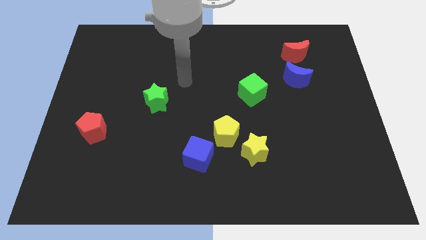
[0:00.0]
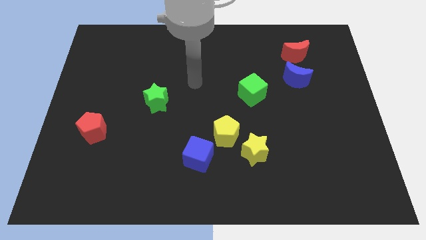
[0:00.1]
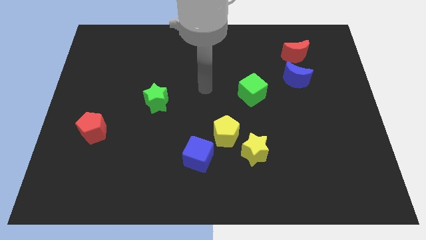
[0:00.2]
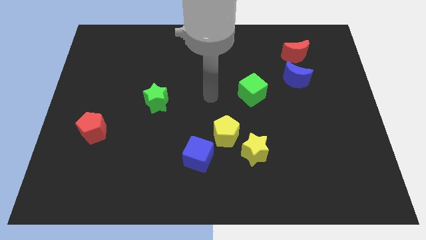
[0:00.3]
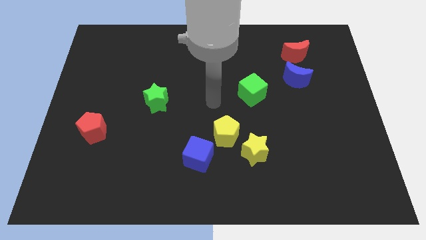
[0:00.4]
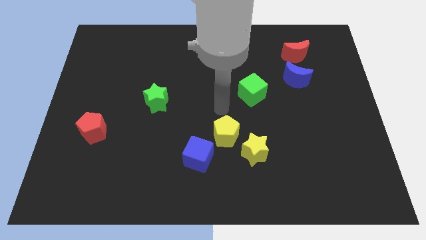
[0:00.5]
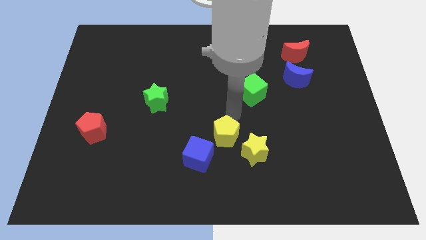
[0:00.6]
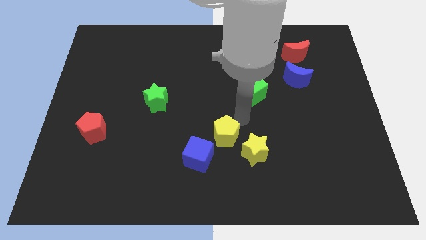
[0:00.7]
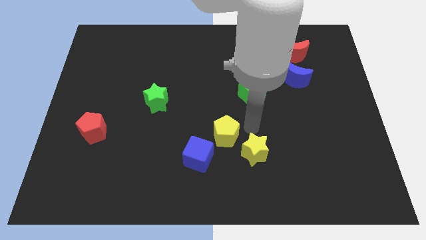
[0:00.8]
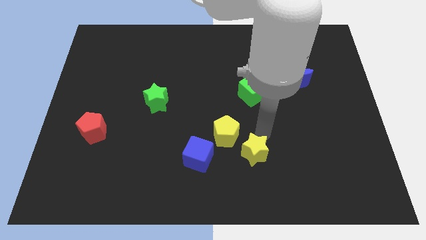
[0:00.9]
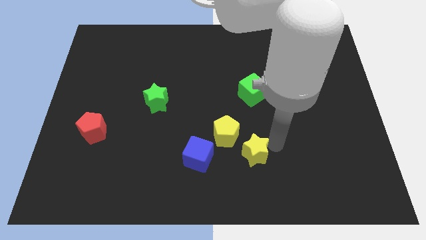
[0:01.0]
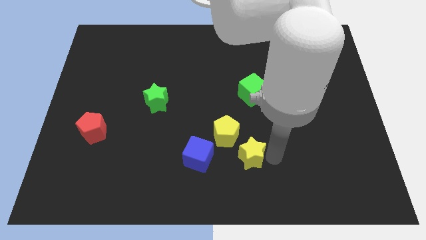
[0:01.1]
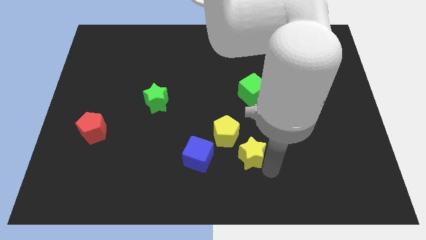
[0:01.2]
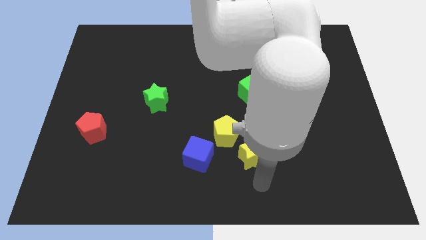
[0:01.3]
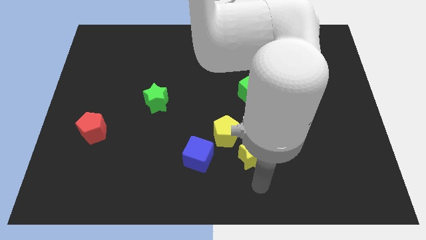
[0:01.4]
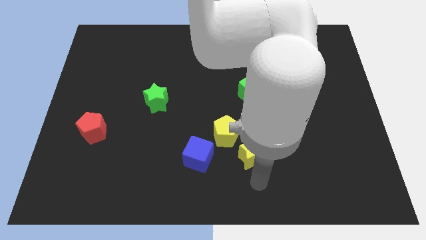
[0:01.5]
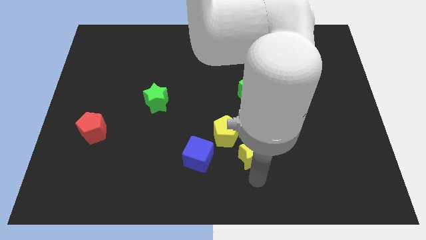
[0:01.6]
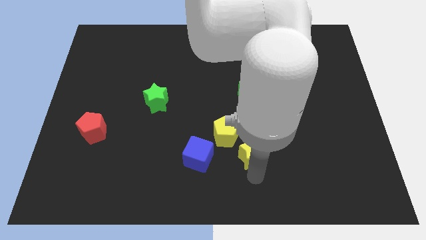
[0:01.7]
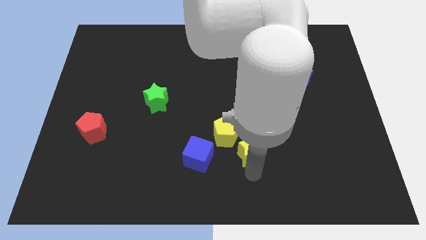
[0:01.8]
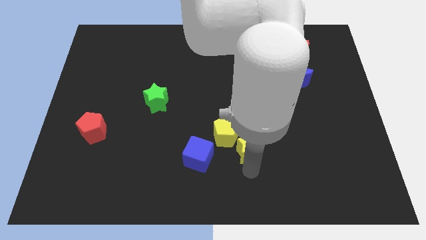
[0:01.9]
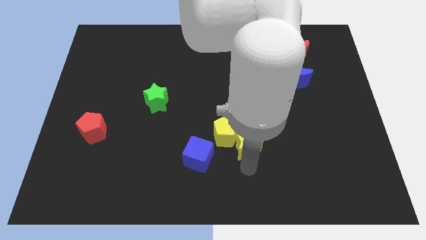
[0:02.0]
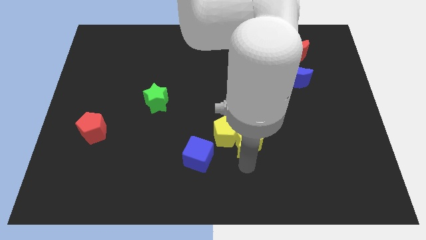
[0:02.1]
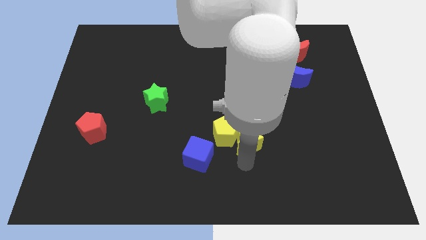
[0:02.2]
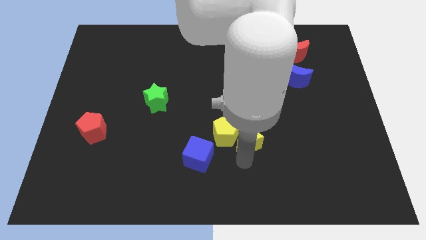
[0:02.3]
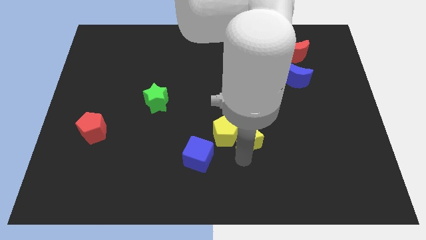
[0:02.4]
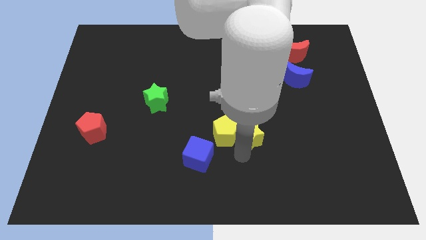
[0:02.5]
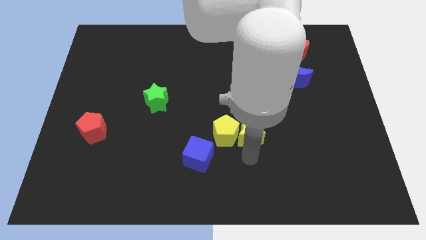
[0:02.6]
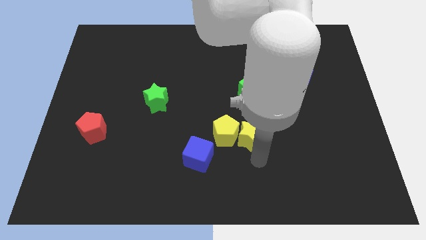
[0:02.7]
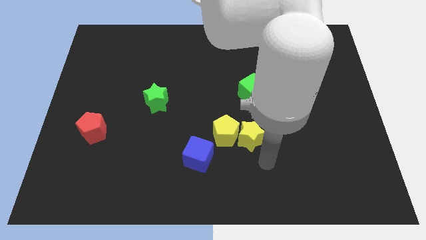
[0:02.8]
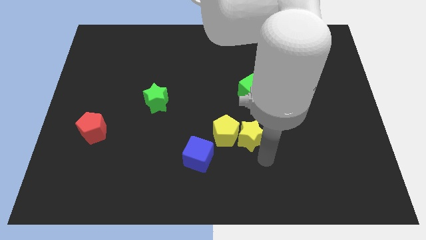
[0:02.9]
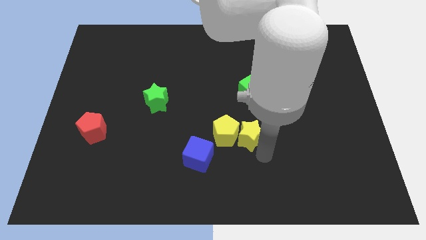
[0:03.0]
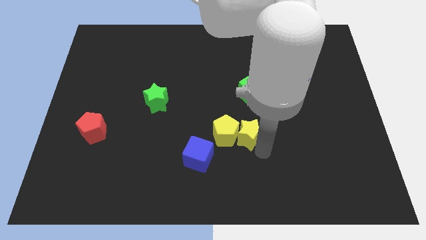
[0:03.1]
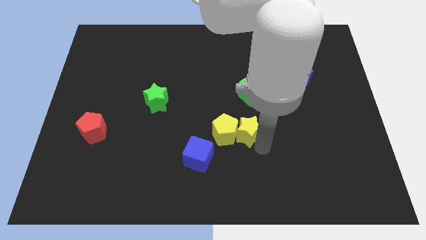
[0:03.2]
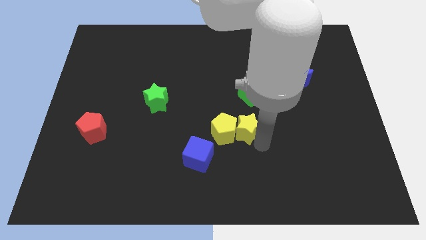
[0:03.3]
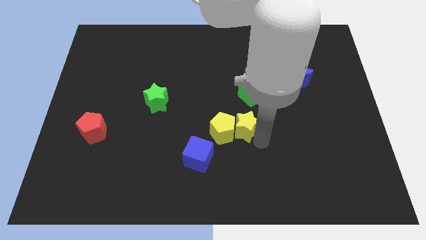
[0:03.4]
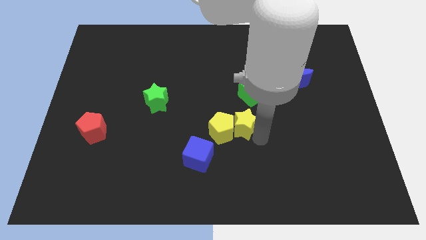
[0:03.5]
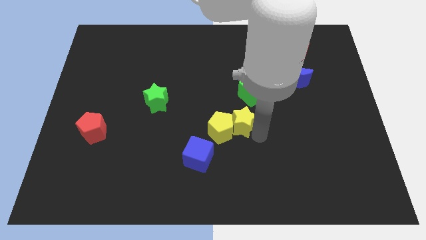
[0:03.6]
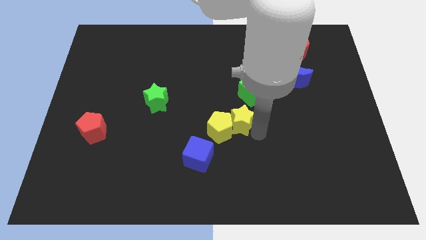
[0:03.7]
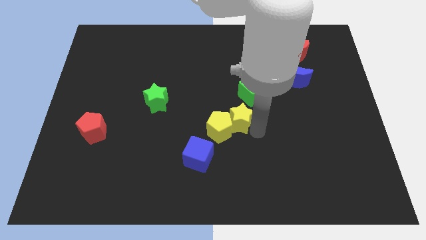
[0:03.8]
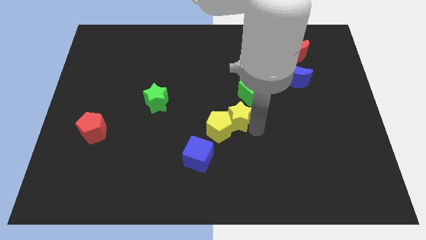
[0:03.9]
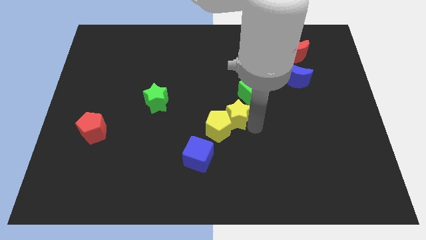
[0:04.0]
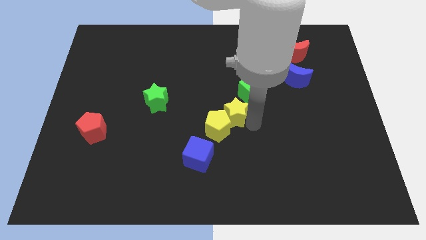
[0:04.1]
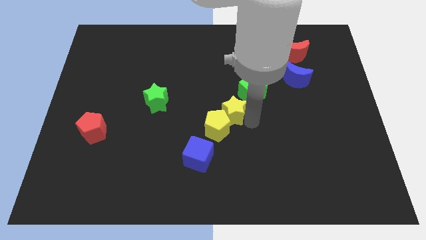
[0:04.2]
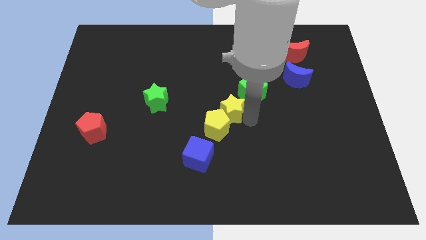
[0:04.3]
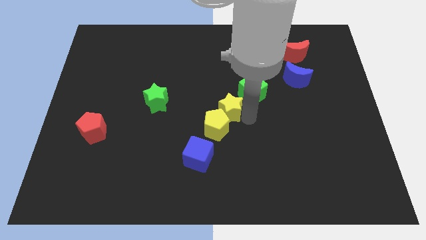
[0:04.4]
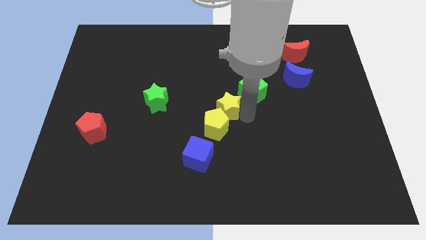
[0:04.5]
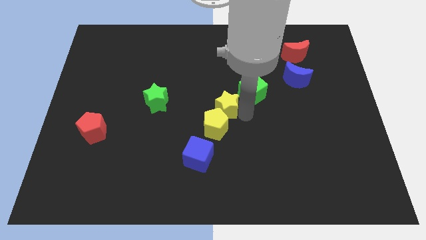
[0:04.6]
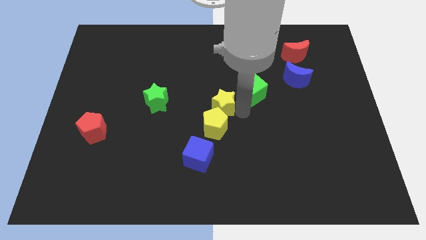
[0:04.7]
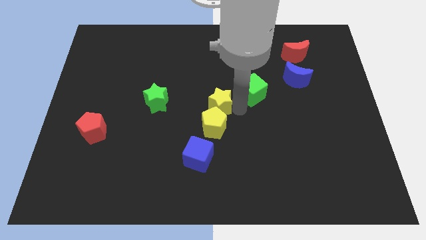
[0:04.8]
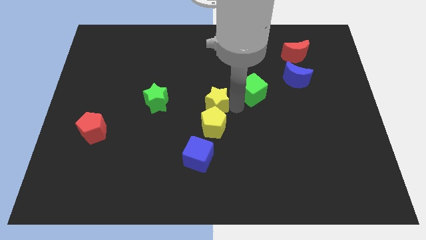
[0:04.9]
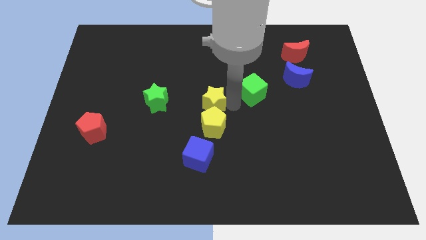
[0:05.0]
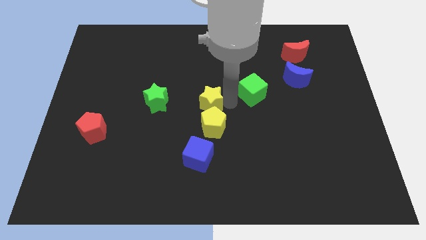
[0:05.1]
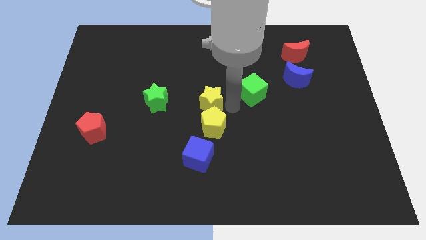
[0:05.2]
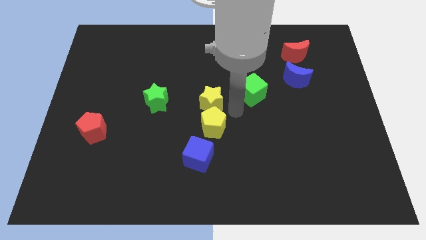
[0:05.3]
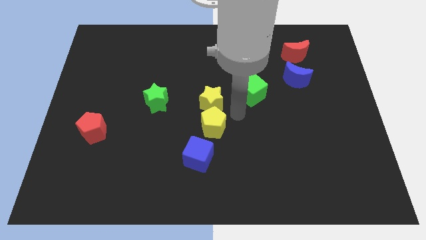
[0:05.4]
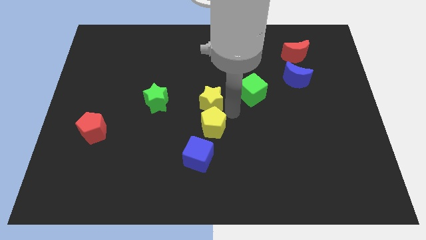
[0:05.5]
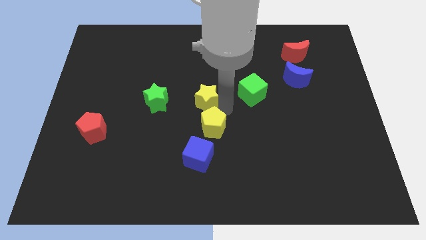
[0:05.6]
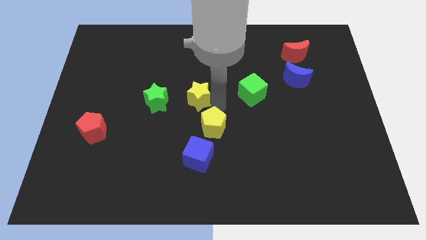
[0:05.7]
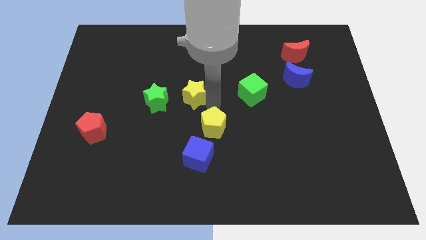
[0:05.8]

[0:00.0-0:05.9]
move the yellow star up and to the left

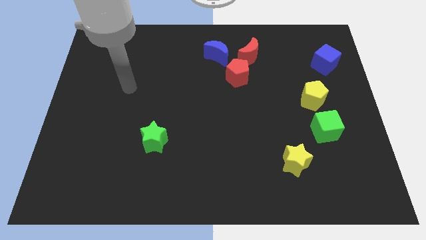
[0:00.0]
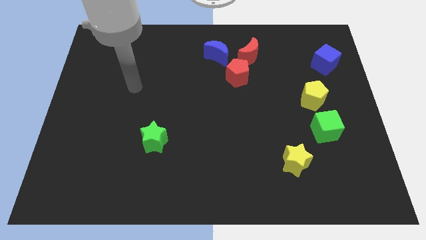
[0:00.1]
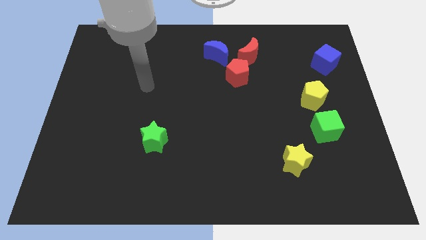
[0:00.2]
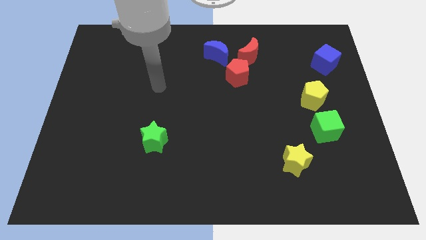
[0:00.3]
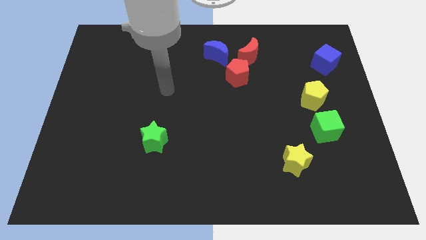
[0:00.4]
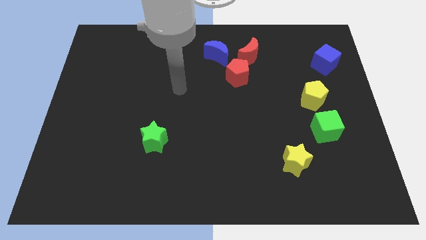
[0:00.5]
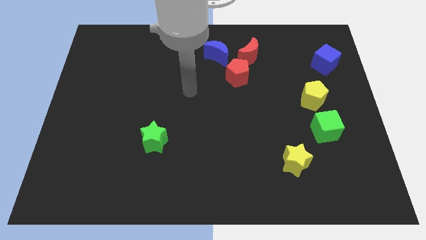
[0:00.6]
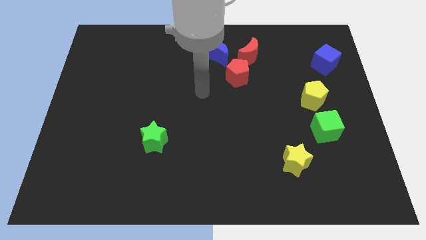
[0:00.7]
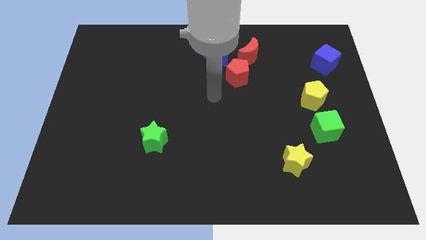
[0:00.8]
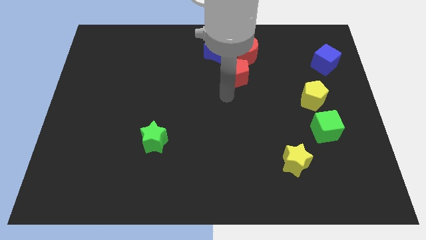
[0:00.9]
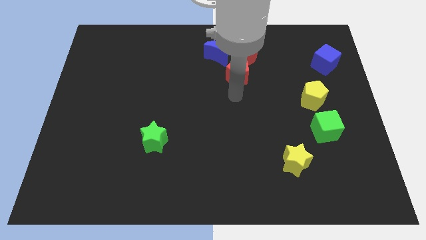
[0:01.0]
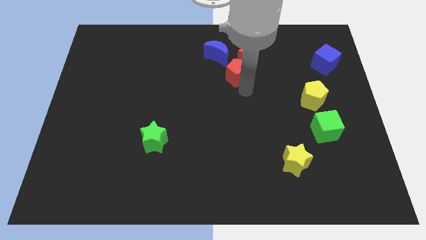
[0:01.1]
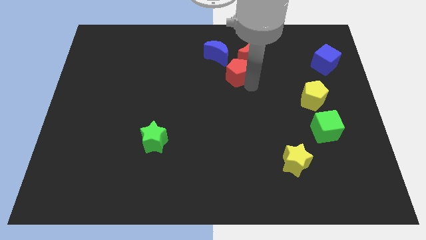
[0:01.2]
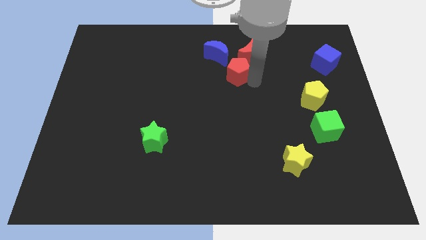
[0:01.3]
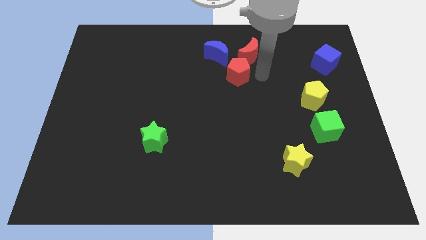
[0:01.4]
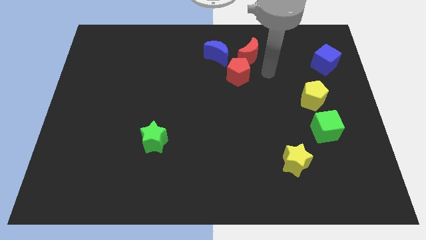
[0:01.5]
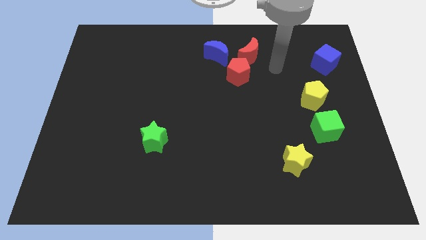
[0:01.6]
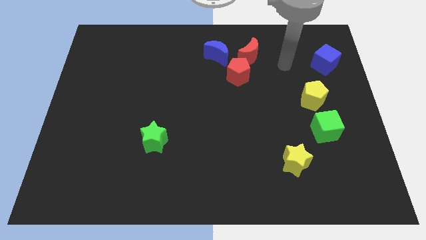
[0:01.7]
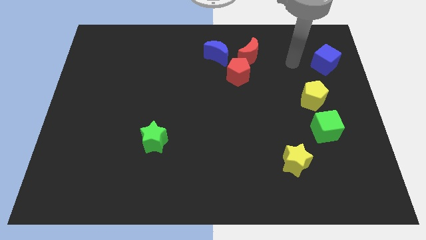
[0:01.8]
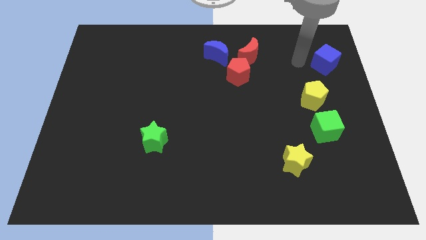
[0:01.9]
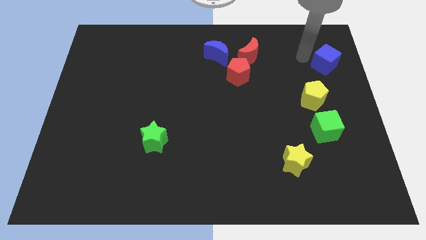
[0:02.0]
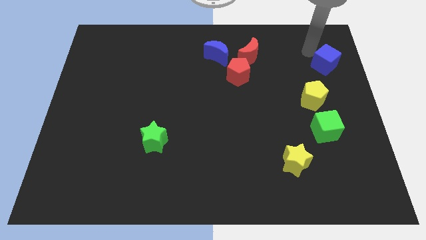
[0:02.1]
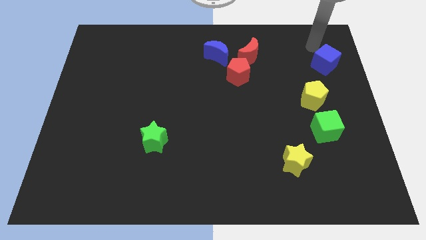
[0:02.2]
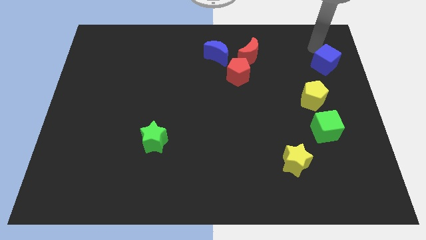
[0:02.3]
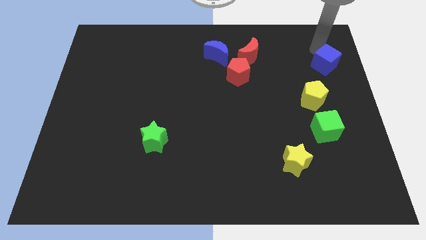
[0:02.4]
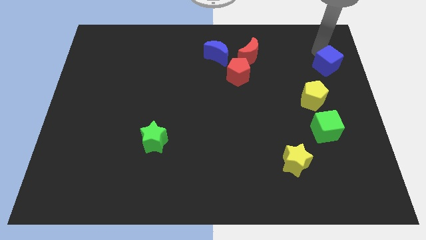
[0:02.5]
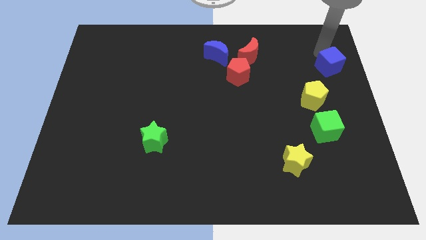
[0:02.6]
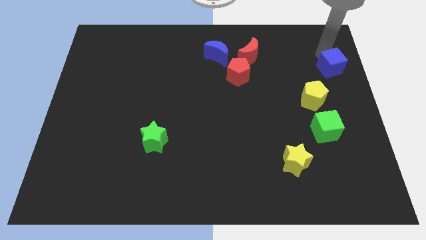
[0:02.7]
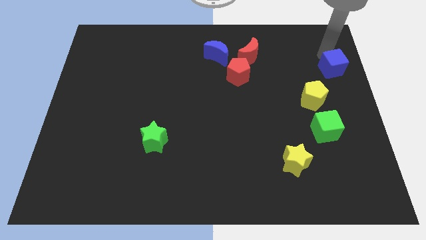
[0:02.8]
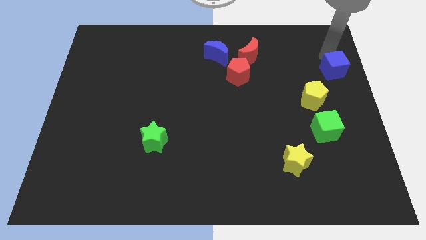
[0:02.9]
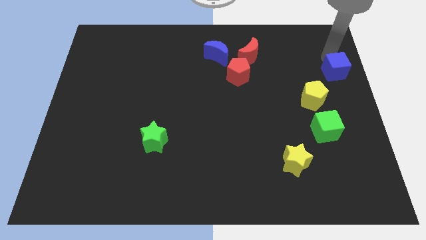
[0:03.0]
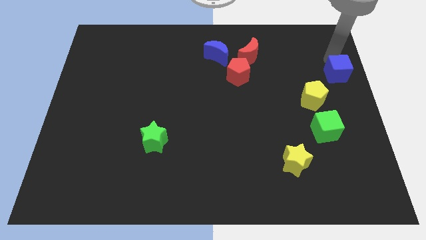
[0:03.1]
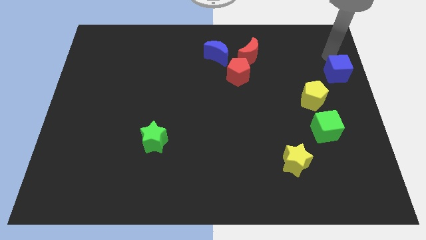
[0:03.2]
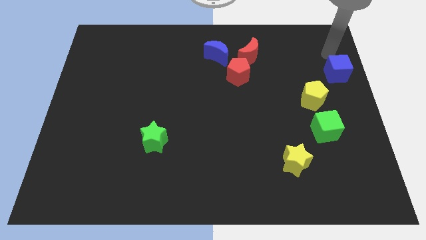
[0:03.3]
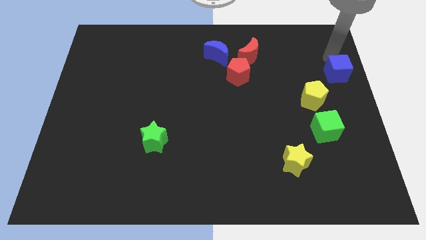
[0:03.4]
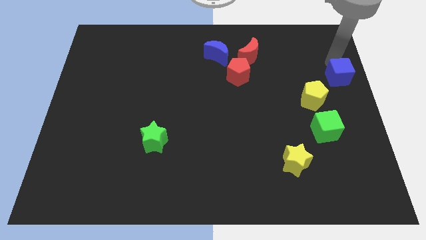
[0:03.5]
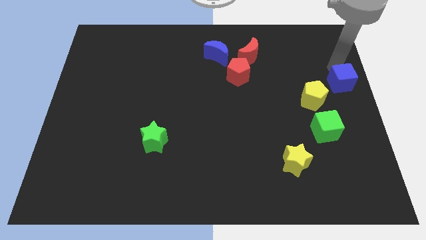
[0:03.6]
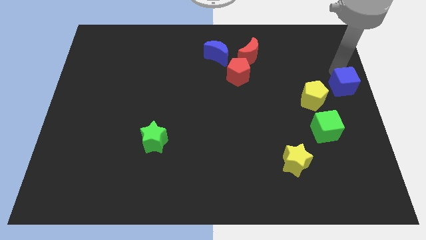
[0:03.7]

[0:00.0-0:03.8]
push the blue cube down a little bit
